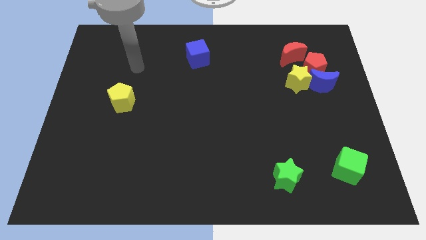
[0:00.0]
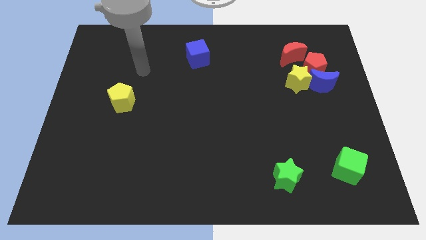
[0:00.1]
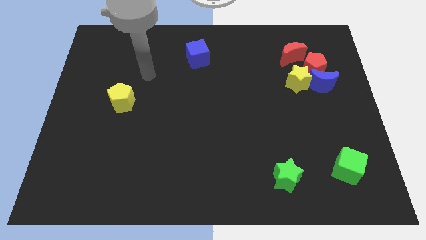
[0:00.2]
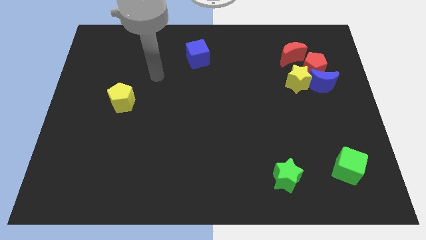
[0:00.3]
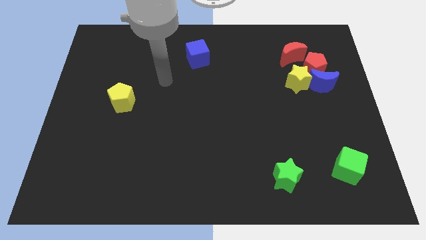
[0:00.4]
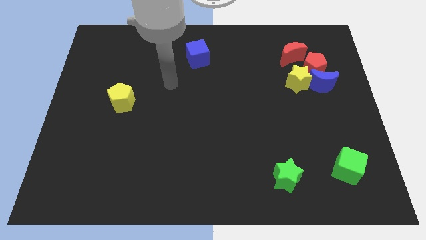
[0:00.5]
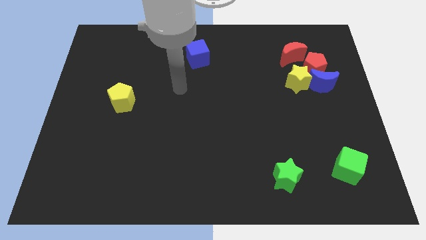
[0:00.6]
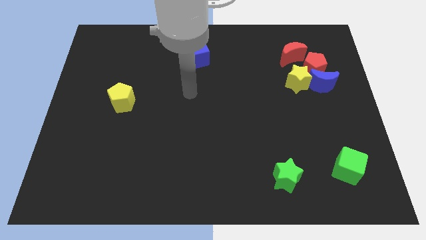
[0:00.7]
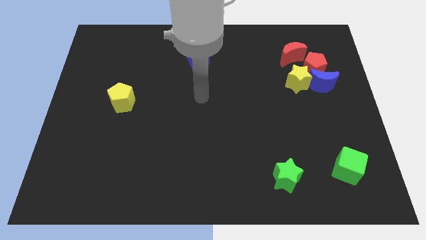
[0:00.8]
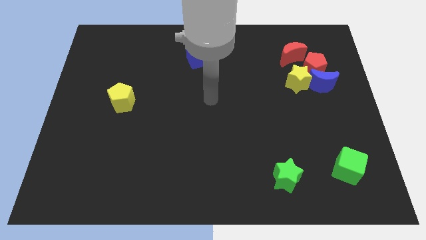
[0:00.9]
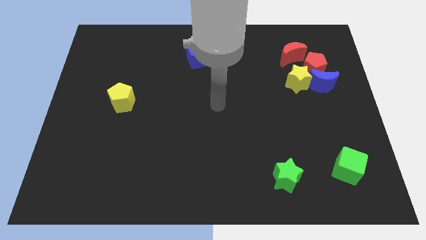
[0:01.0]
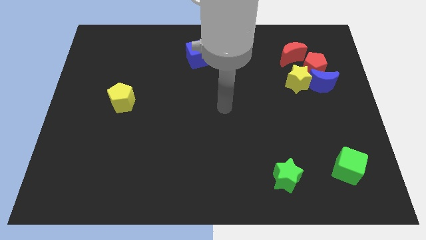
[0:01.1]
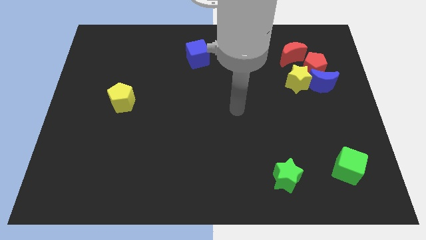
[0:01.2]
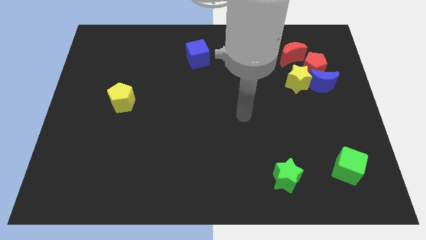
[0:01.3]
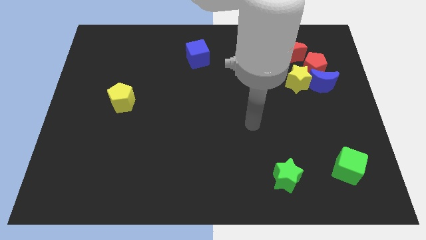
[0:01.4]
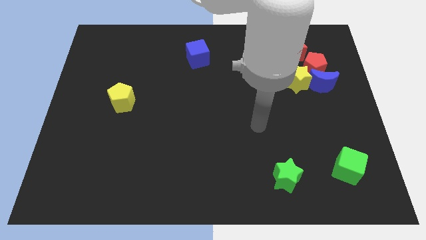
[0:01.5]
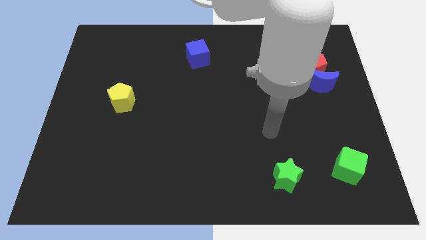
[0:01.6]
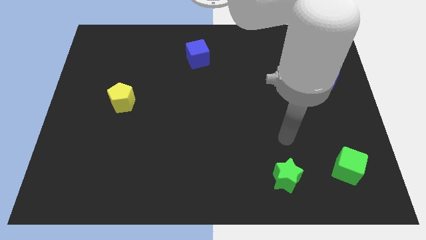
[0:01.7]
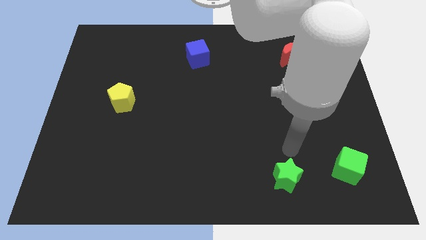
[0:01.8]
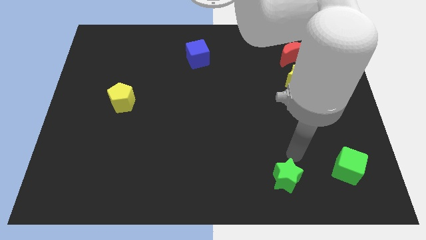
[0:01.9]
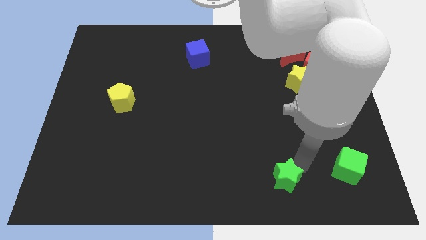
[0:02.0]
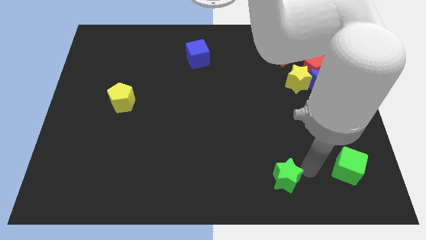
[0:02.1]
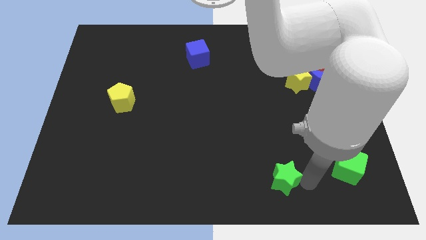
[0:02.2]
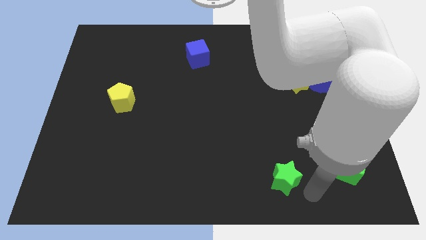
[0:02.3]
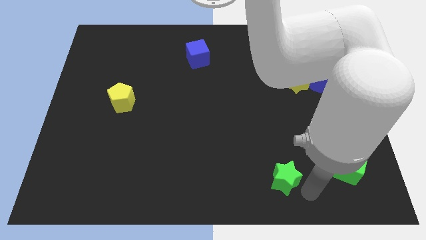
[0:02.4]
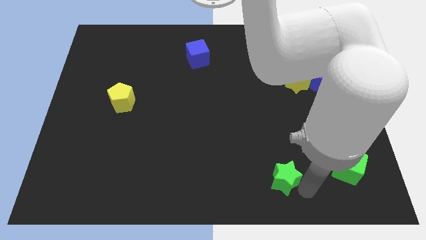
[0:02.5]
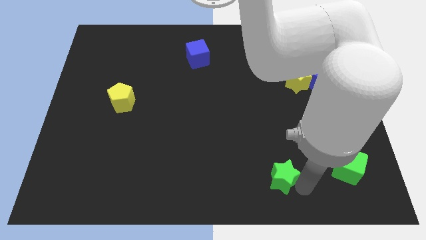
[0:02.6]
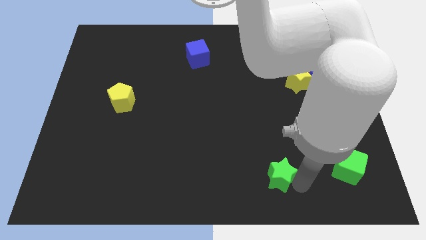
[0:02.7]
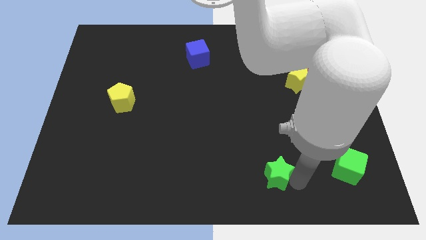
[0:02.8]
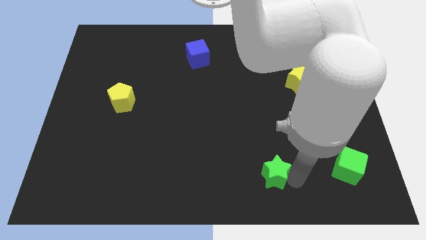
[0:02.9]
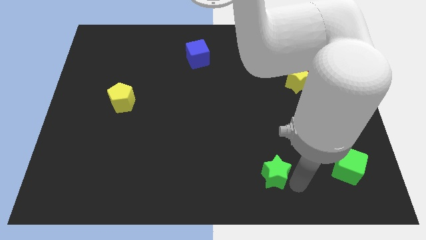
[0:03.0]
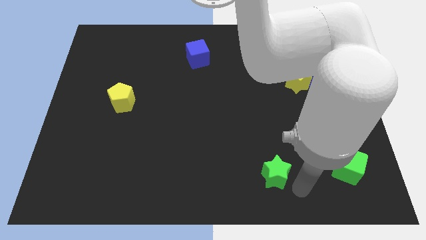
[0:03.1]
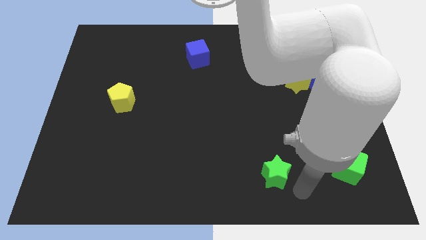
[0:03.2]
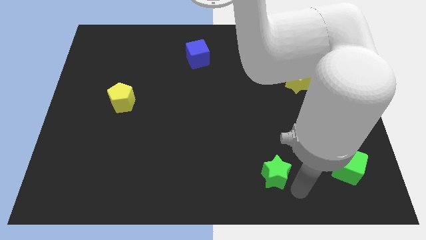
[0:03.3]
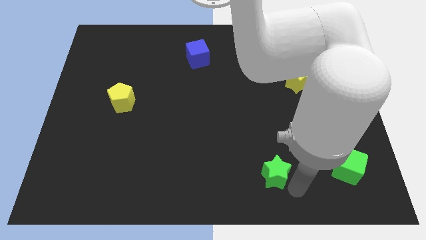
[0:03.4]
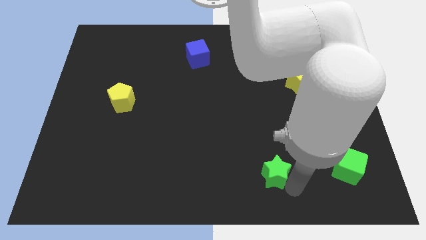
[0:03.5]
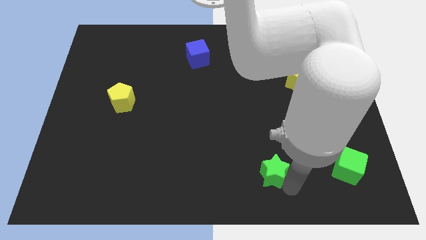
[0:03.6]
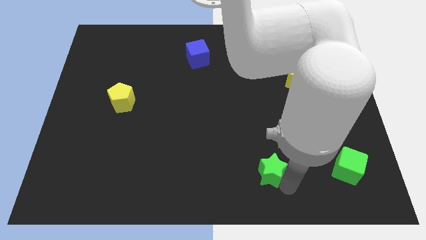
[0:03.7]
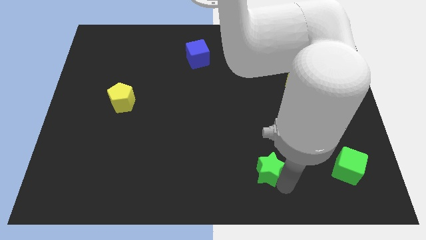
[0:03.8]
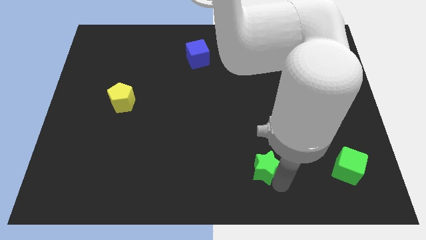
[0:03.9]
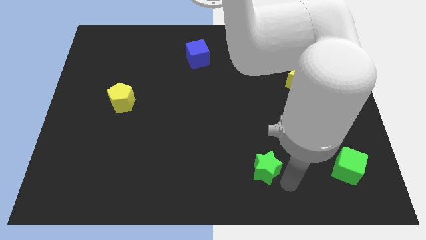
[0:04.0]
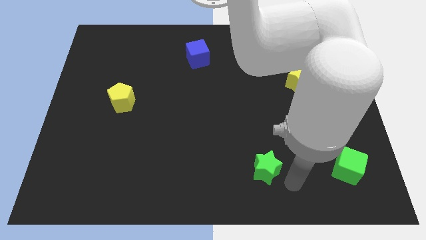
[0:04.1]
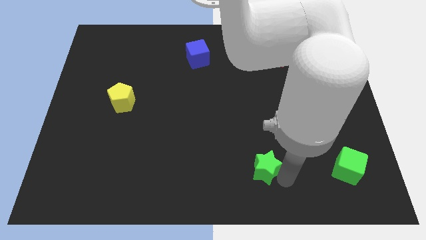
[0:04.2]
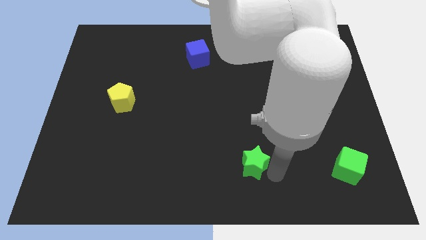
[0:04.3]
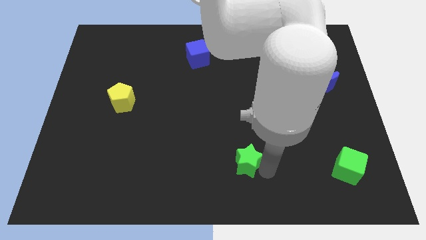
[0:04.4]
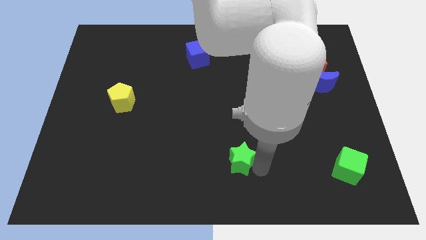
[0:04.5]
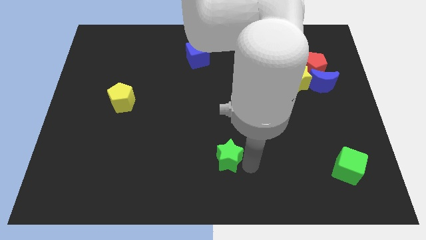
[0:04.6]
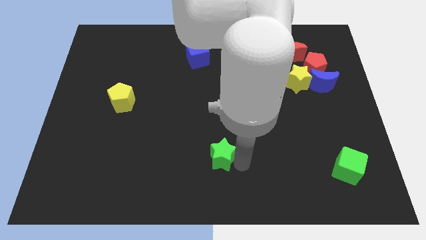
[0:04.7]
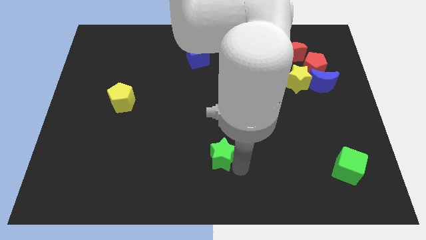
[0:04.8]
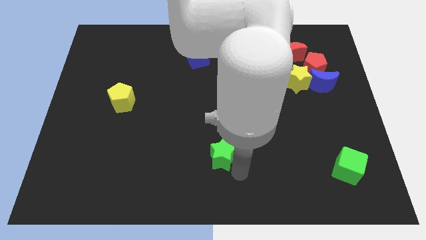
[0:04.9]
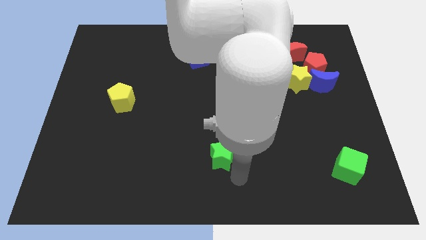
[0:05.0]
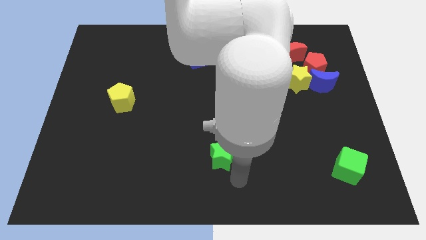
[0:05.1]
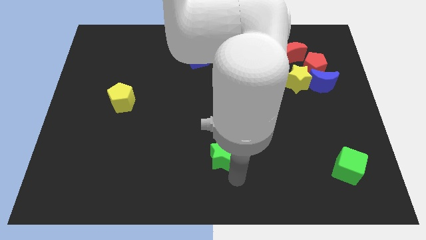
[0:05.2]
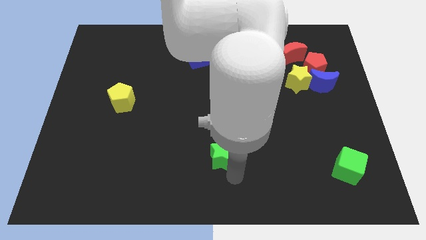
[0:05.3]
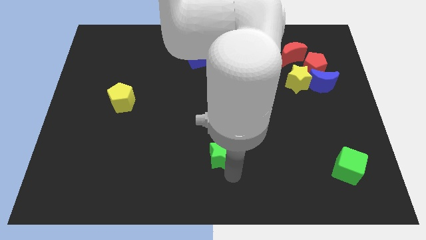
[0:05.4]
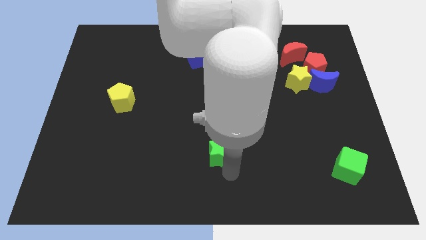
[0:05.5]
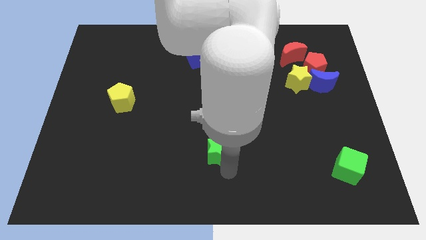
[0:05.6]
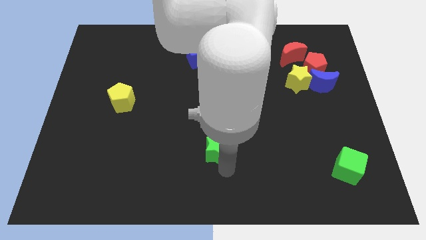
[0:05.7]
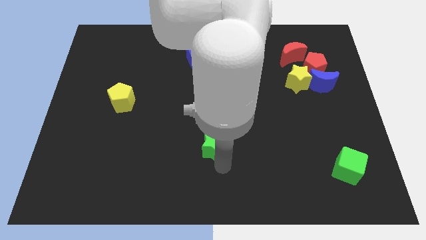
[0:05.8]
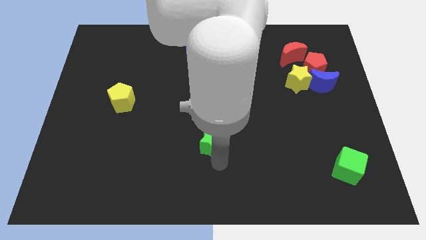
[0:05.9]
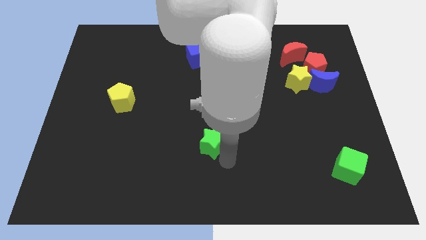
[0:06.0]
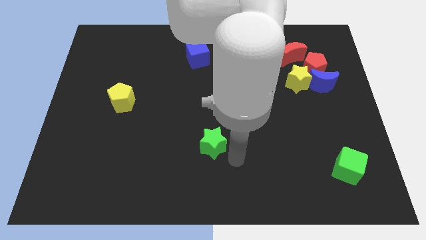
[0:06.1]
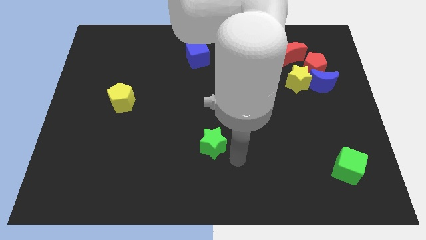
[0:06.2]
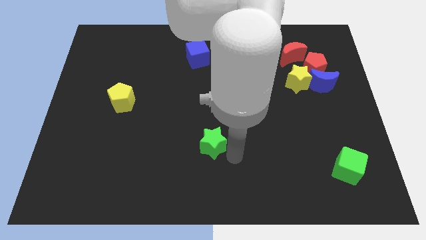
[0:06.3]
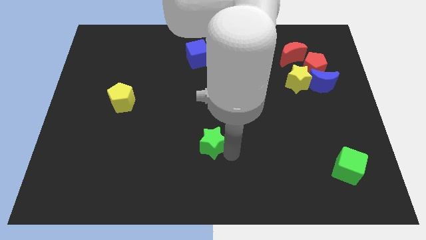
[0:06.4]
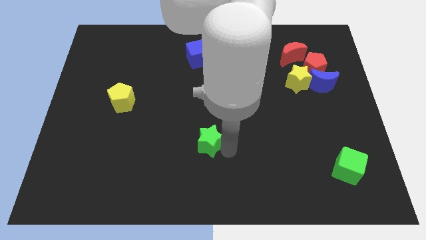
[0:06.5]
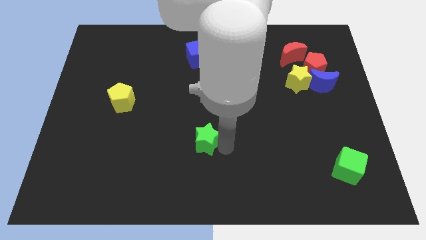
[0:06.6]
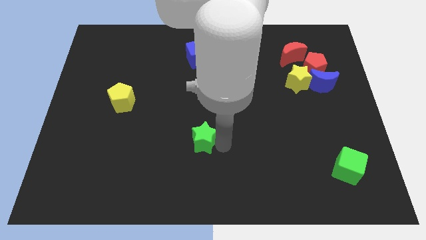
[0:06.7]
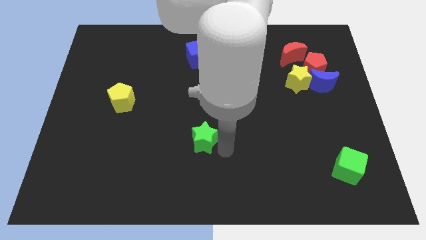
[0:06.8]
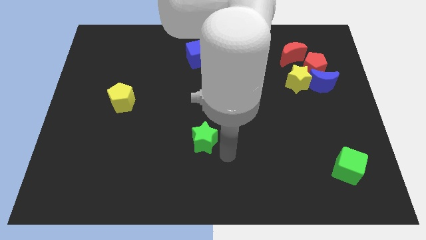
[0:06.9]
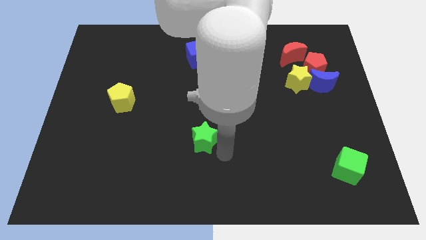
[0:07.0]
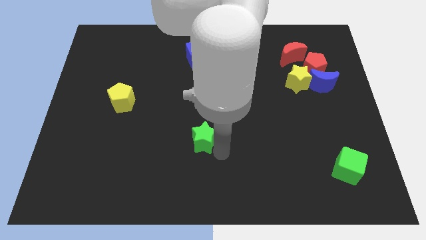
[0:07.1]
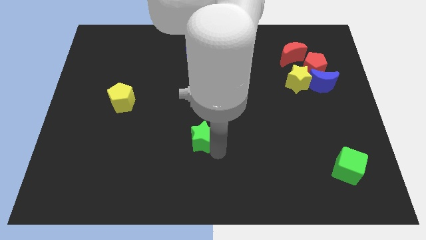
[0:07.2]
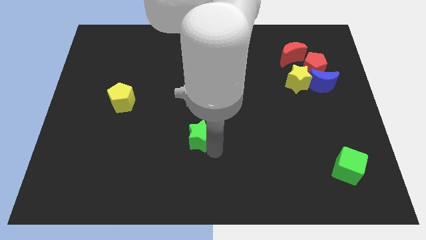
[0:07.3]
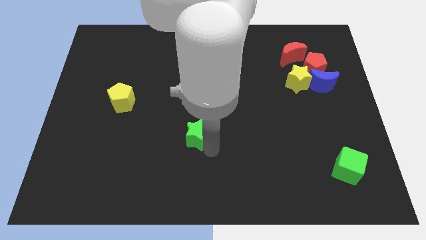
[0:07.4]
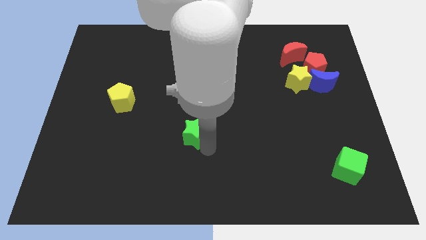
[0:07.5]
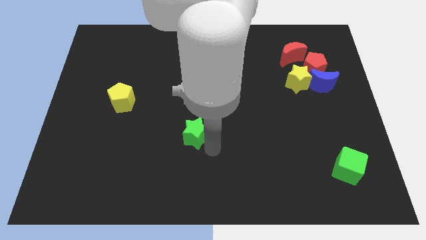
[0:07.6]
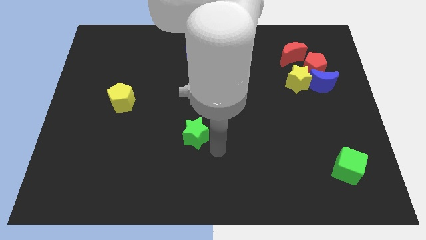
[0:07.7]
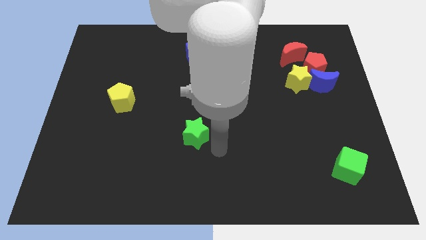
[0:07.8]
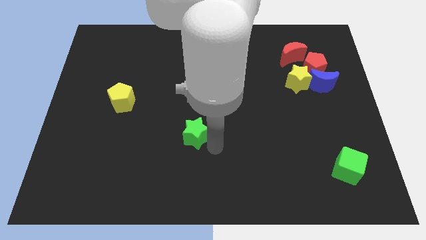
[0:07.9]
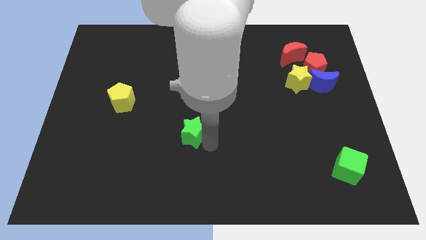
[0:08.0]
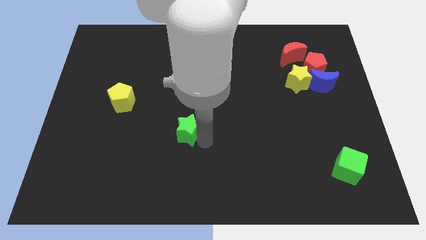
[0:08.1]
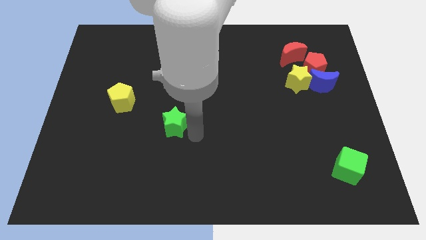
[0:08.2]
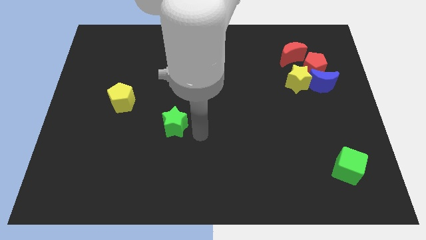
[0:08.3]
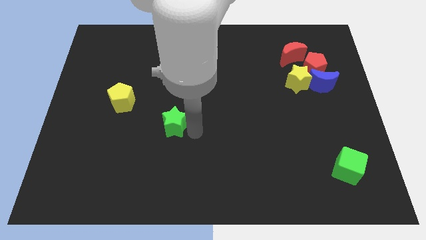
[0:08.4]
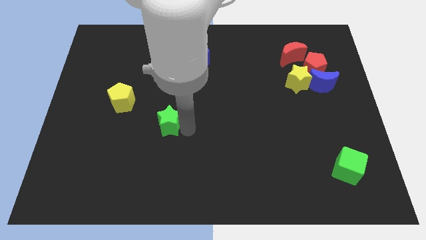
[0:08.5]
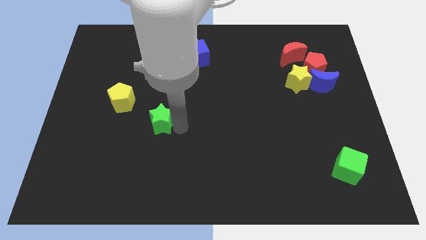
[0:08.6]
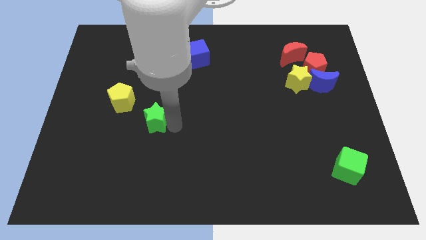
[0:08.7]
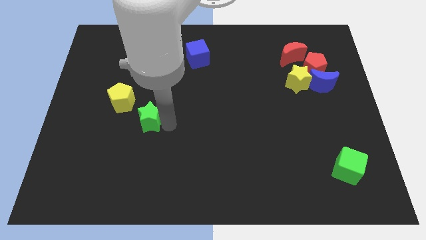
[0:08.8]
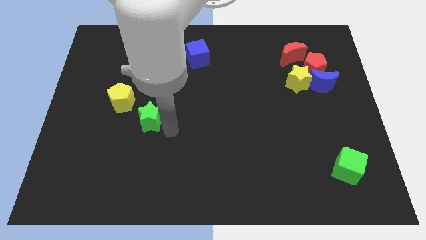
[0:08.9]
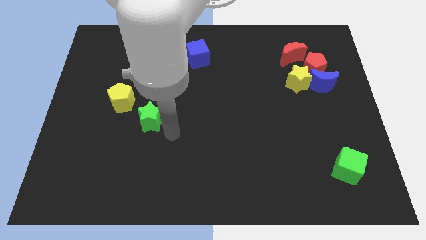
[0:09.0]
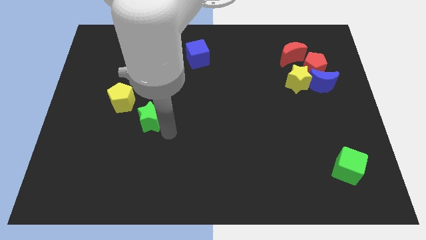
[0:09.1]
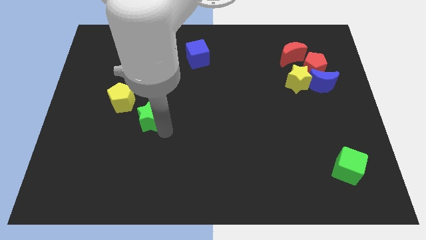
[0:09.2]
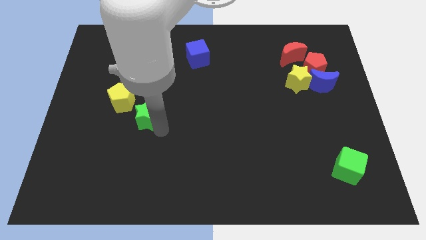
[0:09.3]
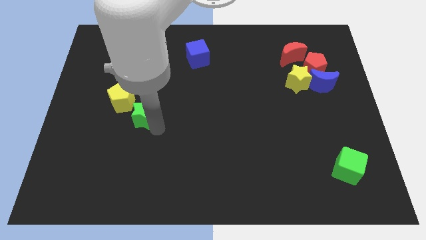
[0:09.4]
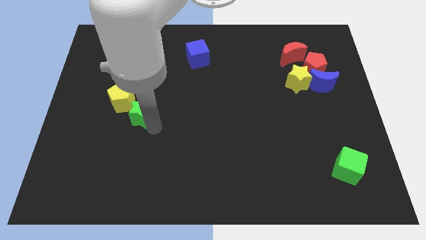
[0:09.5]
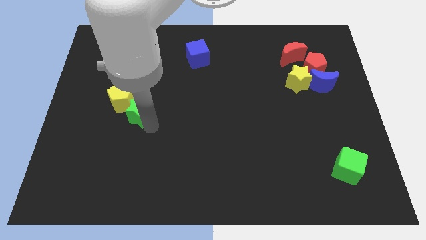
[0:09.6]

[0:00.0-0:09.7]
move the green star close to the yellow pentagon
